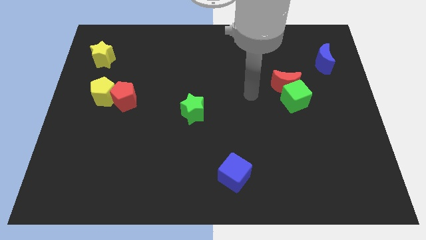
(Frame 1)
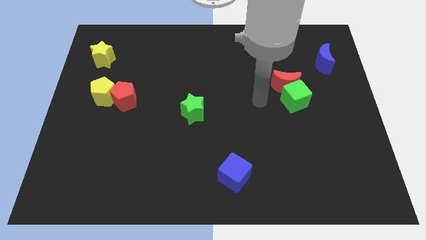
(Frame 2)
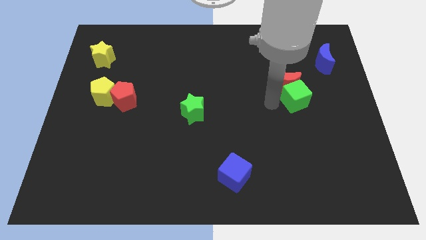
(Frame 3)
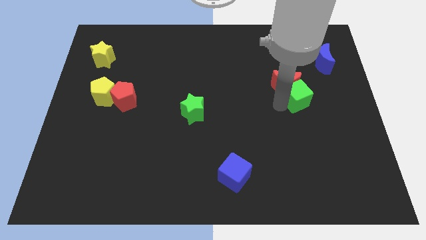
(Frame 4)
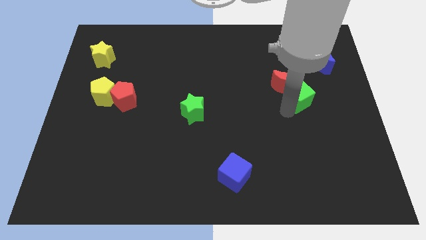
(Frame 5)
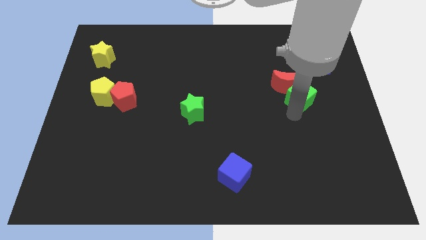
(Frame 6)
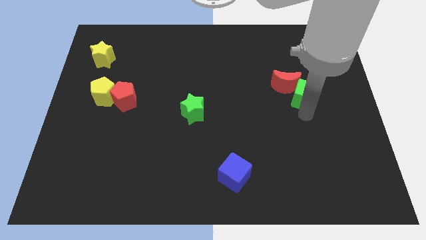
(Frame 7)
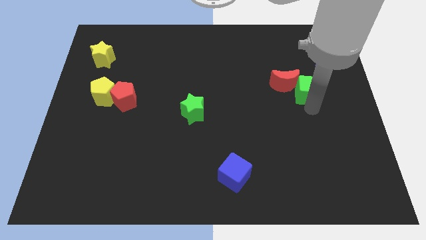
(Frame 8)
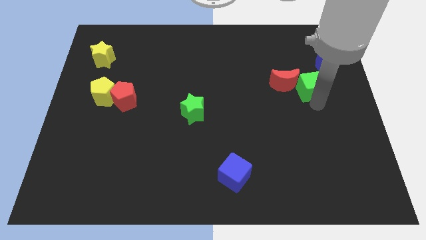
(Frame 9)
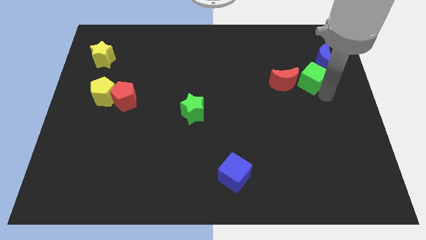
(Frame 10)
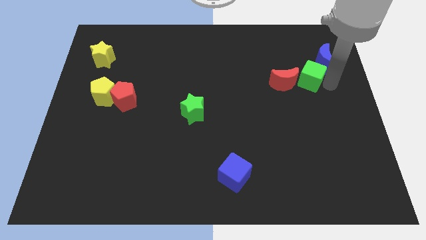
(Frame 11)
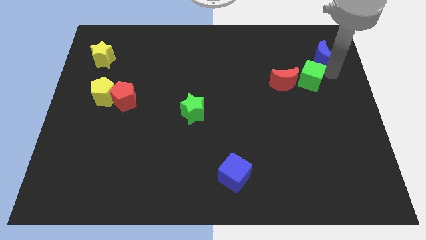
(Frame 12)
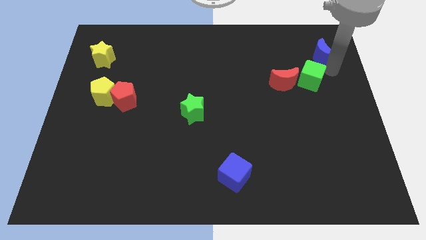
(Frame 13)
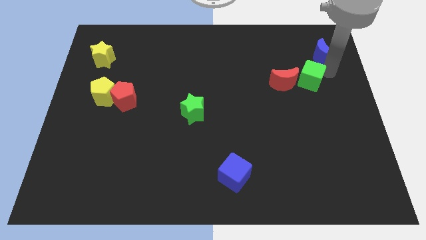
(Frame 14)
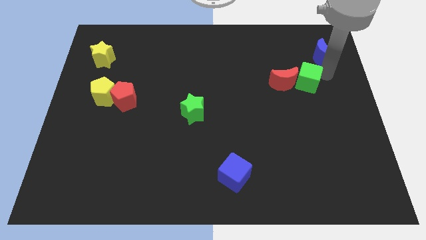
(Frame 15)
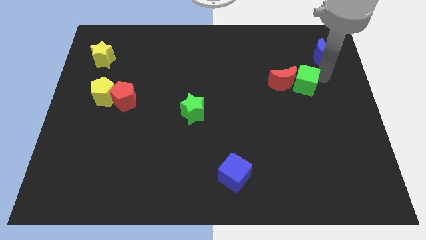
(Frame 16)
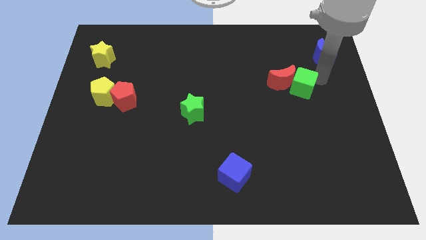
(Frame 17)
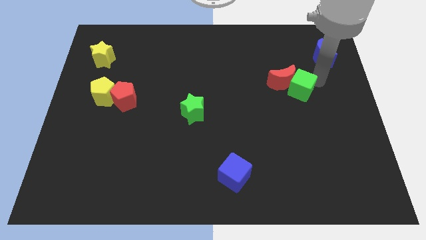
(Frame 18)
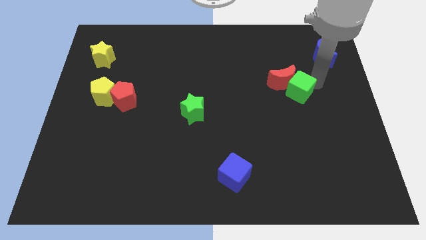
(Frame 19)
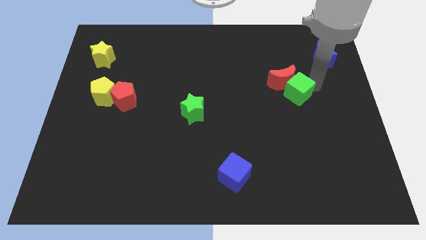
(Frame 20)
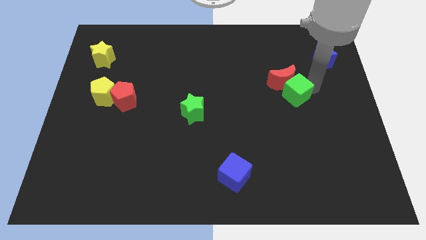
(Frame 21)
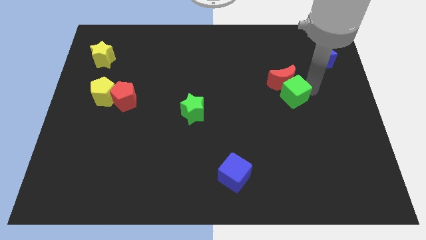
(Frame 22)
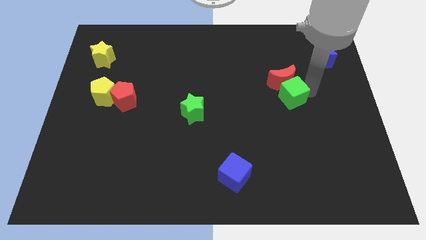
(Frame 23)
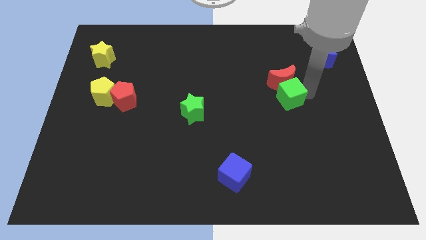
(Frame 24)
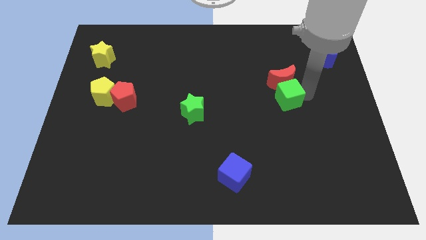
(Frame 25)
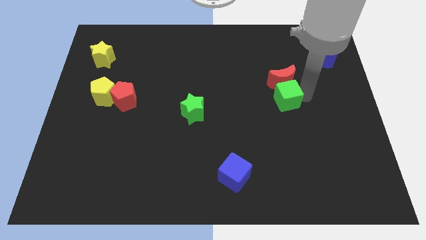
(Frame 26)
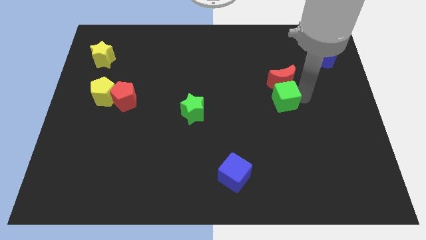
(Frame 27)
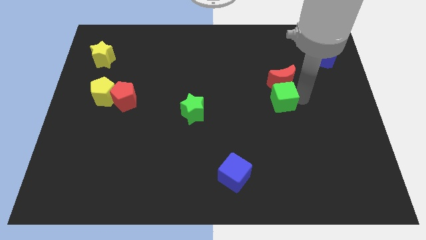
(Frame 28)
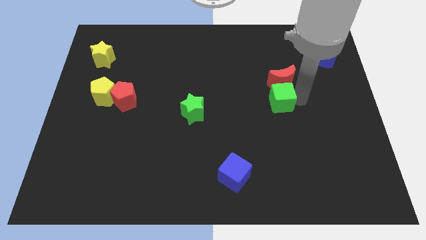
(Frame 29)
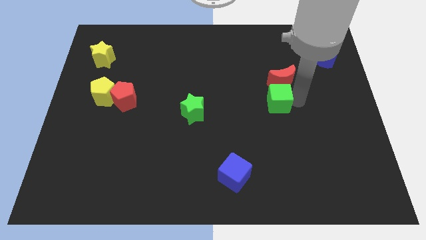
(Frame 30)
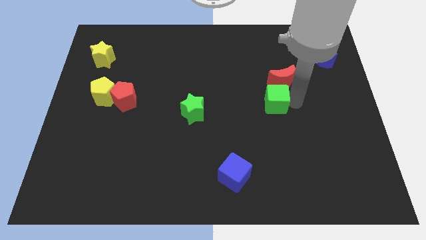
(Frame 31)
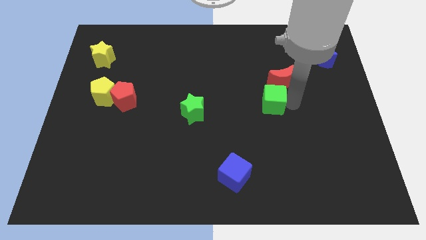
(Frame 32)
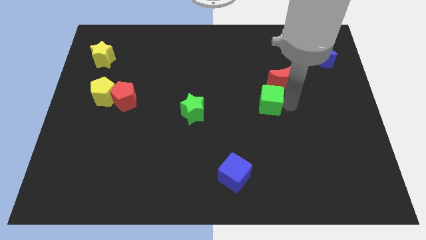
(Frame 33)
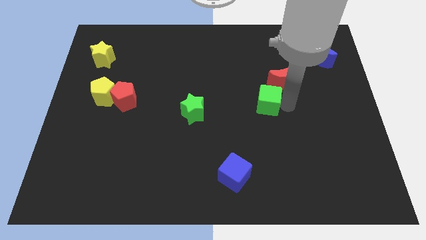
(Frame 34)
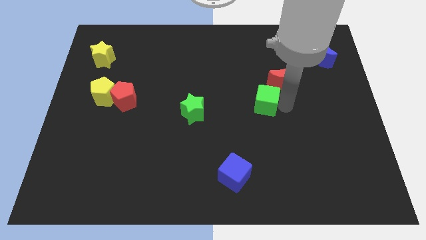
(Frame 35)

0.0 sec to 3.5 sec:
slide the green cube to the left a little bit

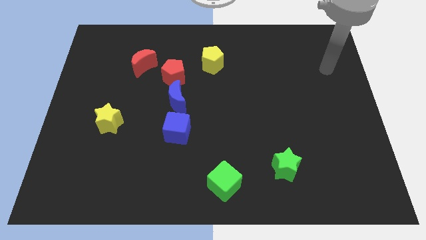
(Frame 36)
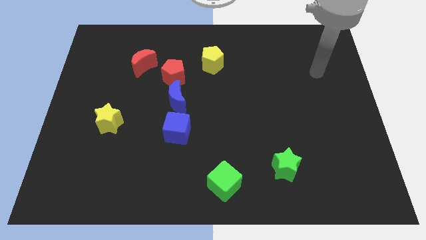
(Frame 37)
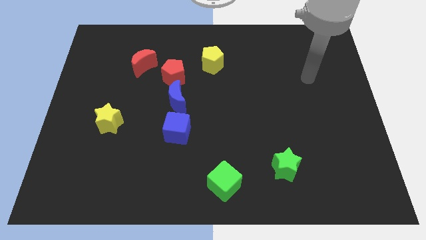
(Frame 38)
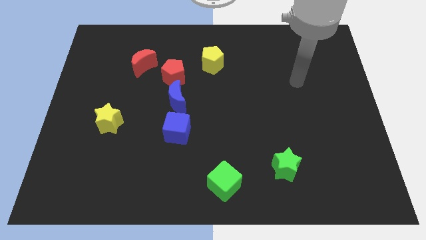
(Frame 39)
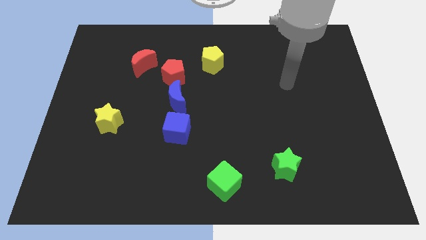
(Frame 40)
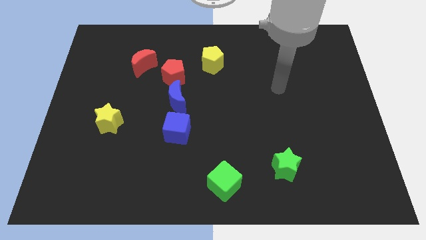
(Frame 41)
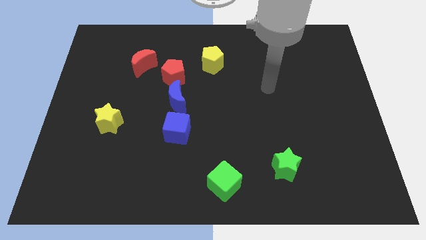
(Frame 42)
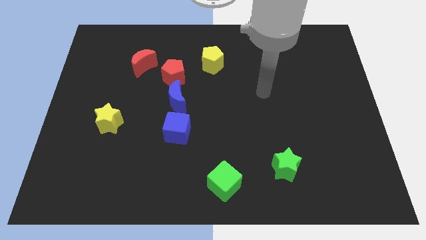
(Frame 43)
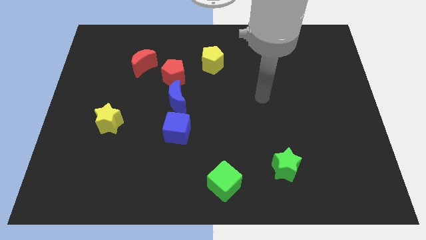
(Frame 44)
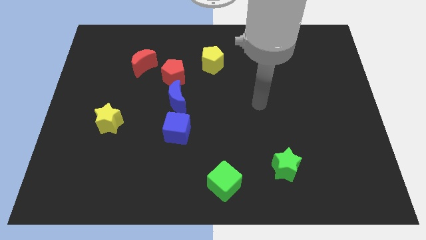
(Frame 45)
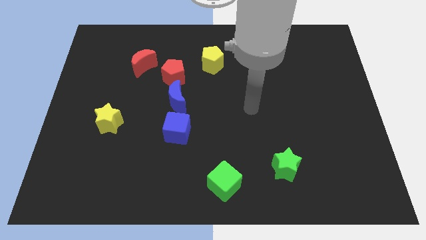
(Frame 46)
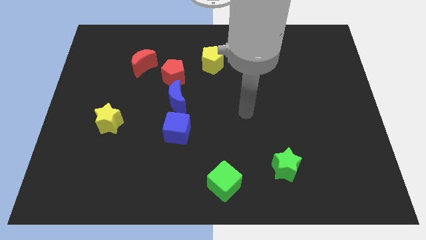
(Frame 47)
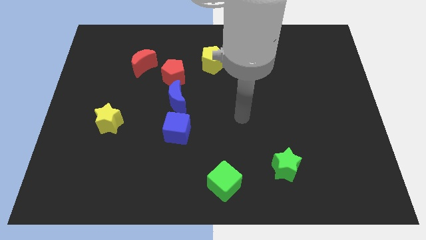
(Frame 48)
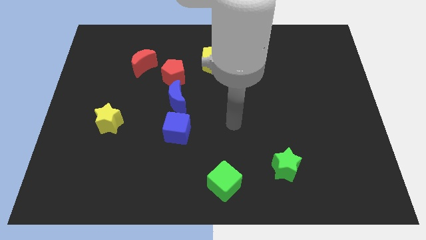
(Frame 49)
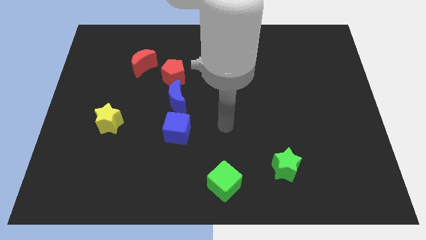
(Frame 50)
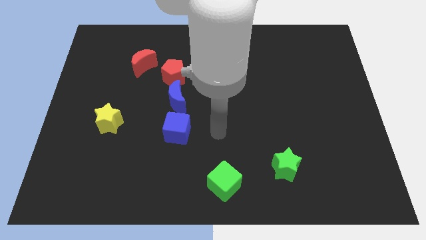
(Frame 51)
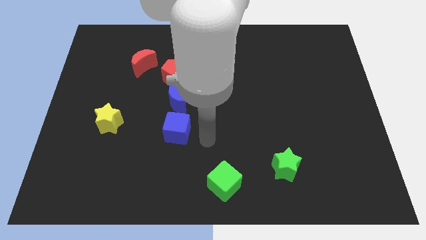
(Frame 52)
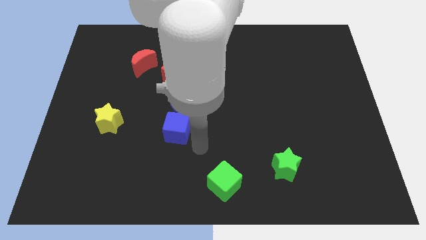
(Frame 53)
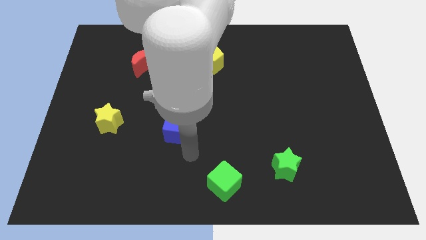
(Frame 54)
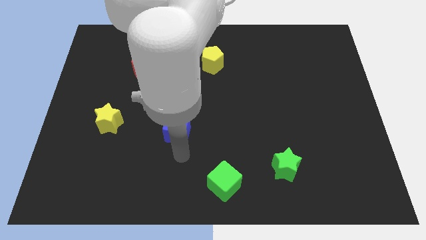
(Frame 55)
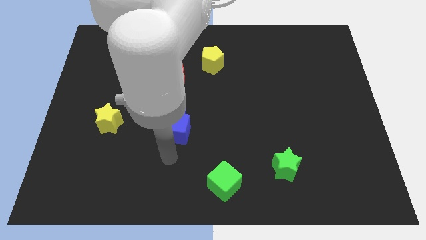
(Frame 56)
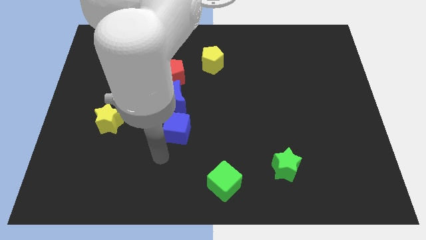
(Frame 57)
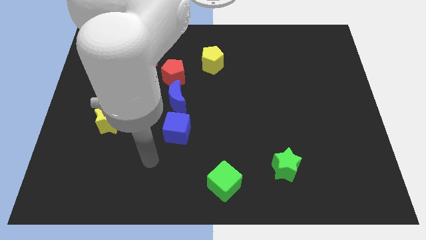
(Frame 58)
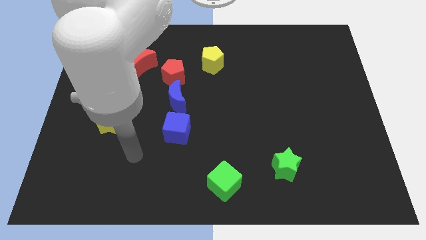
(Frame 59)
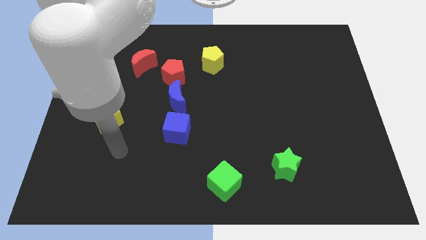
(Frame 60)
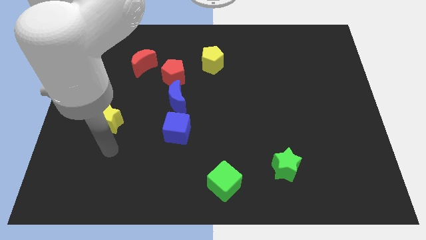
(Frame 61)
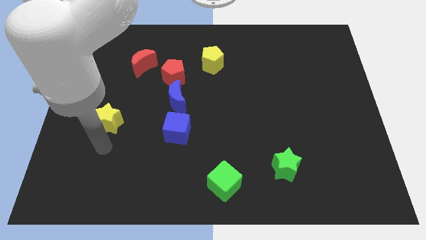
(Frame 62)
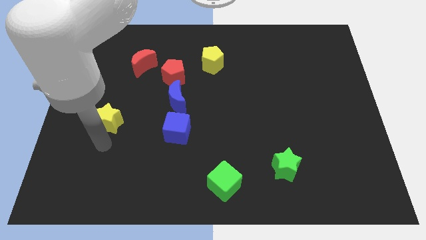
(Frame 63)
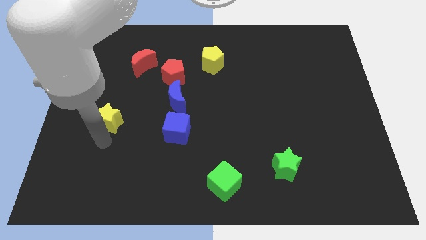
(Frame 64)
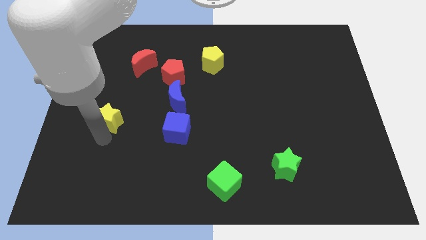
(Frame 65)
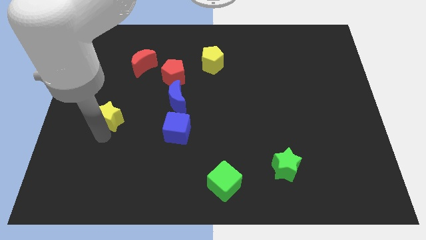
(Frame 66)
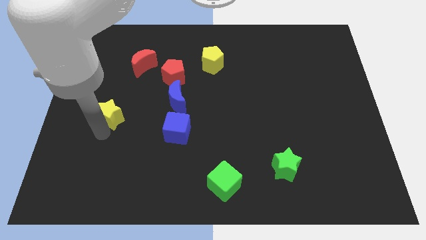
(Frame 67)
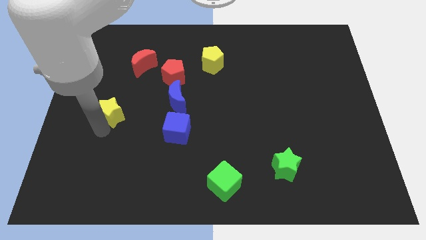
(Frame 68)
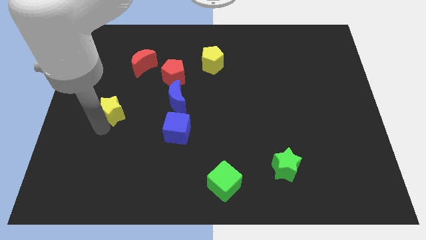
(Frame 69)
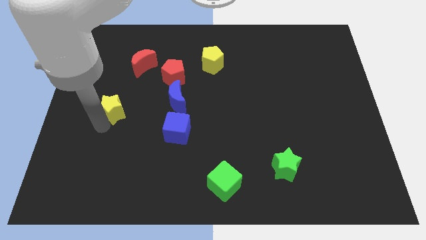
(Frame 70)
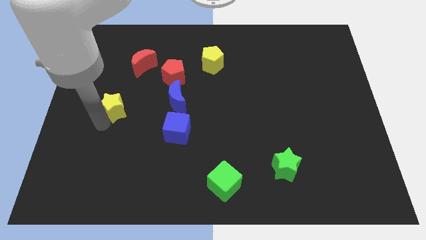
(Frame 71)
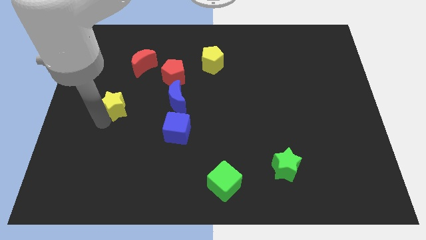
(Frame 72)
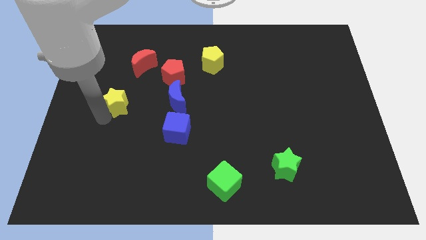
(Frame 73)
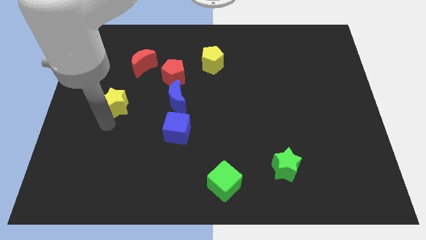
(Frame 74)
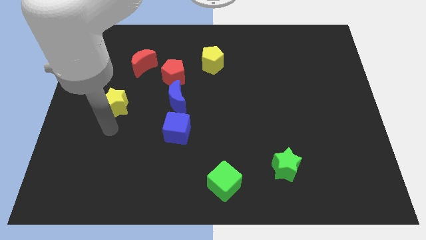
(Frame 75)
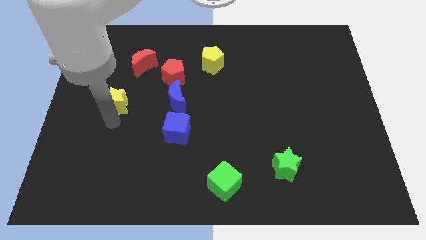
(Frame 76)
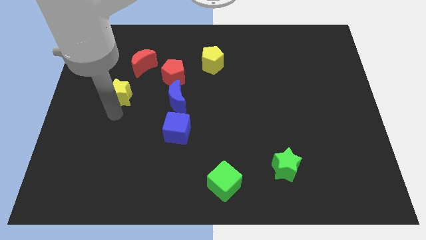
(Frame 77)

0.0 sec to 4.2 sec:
push the yellow star a little bit upwards
